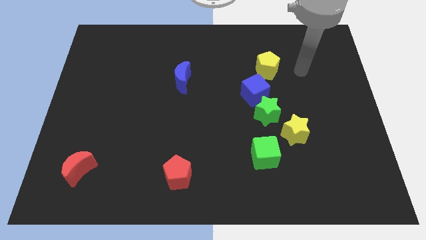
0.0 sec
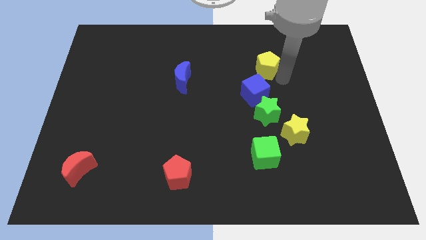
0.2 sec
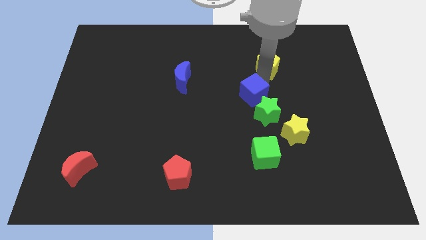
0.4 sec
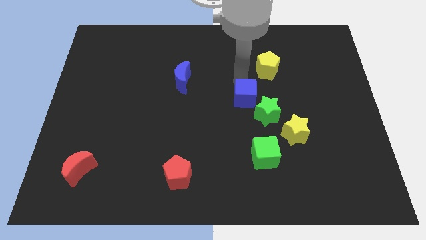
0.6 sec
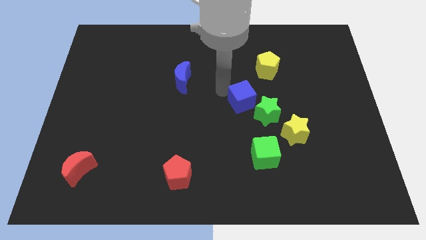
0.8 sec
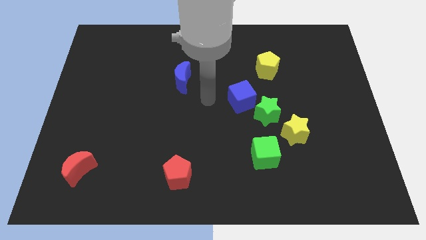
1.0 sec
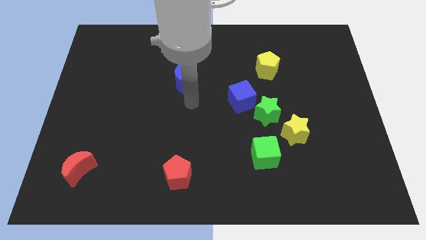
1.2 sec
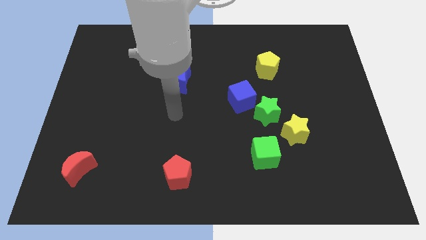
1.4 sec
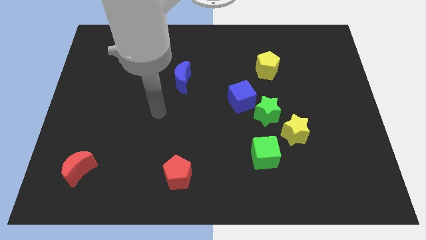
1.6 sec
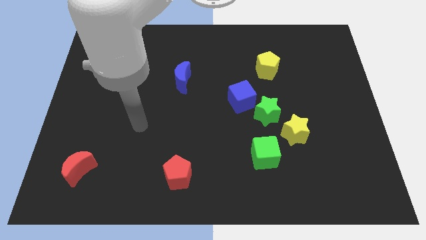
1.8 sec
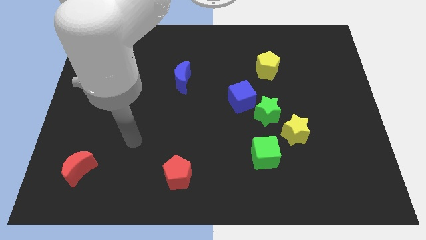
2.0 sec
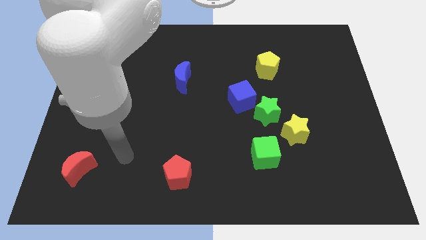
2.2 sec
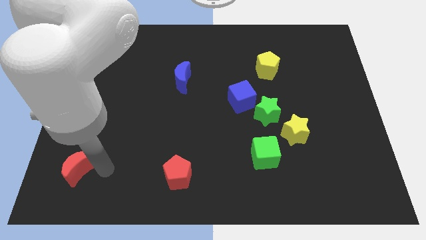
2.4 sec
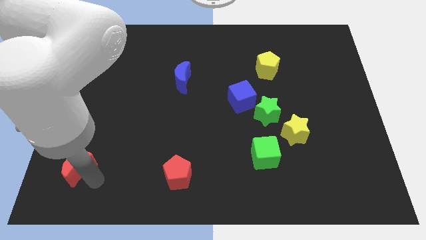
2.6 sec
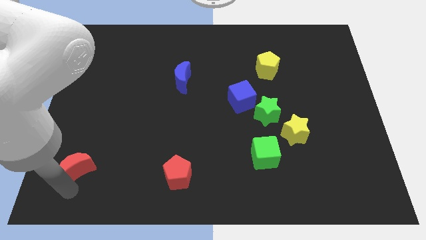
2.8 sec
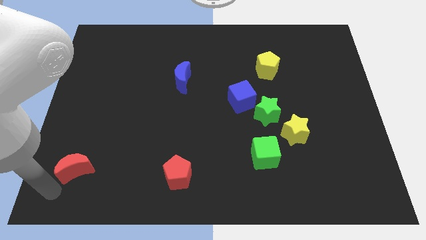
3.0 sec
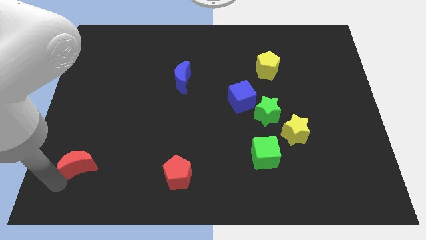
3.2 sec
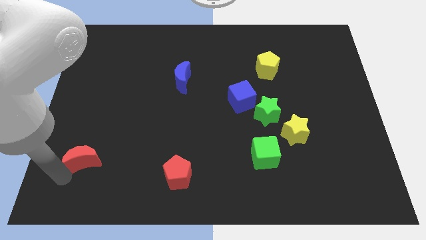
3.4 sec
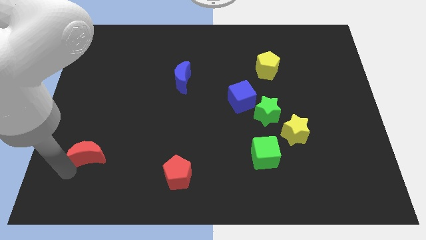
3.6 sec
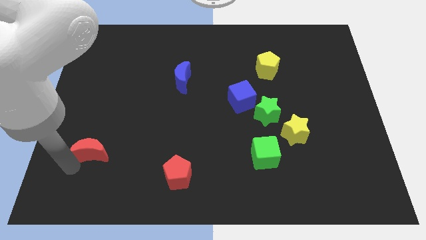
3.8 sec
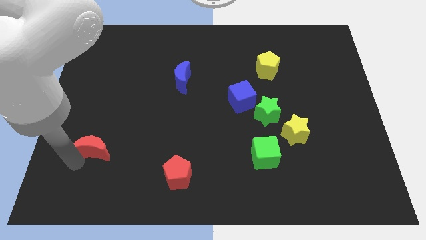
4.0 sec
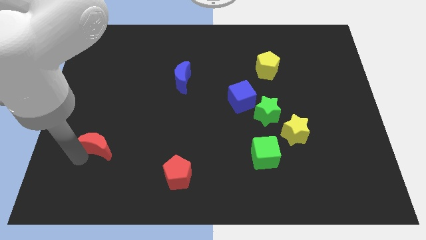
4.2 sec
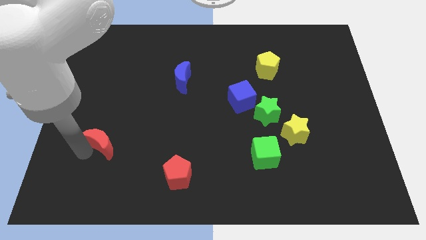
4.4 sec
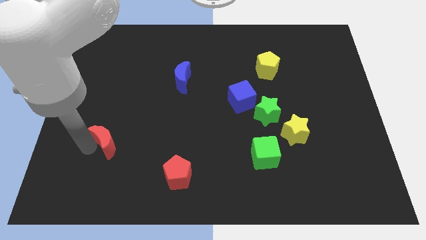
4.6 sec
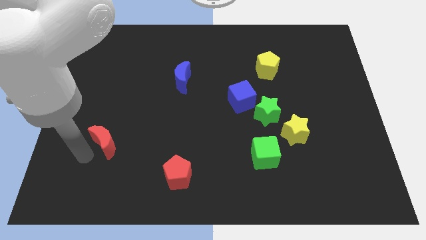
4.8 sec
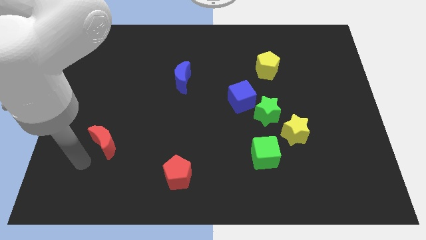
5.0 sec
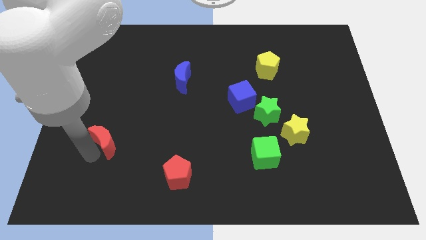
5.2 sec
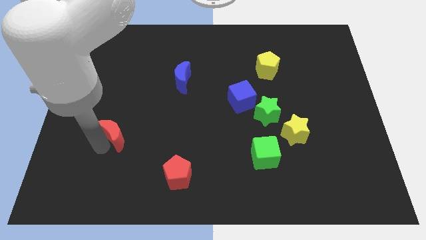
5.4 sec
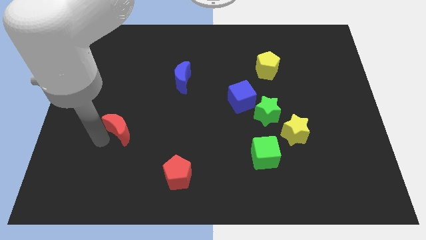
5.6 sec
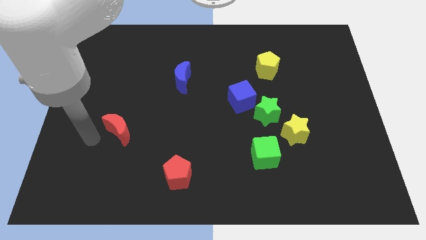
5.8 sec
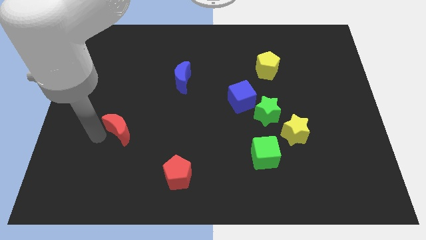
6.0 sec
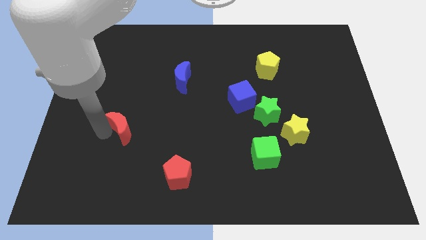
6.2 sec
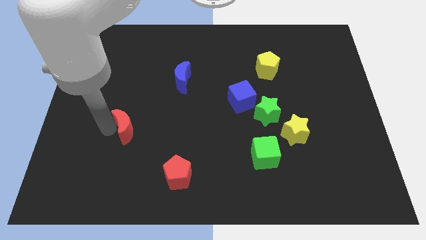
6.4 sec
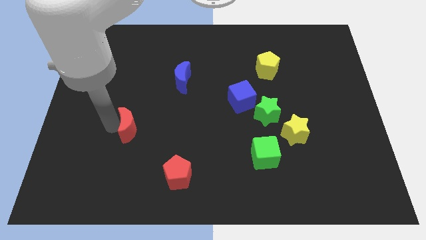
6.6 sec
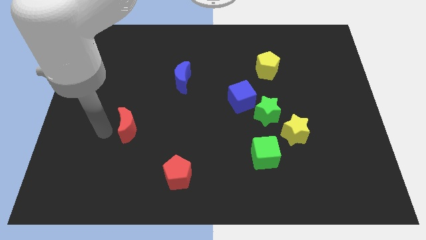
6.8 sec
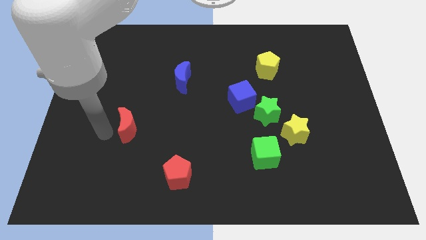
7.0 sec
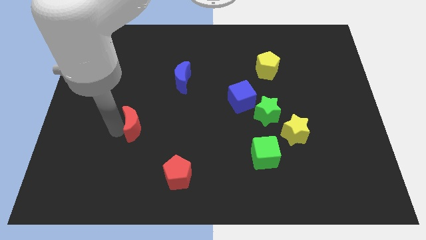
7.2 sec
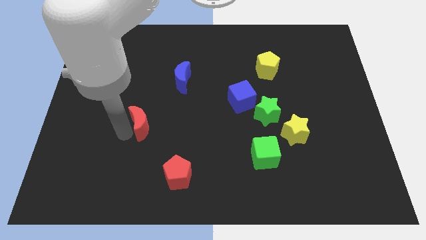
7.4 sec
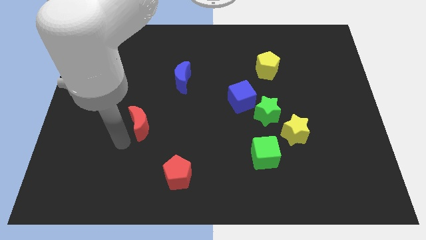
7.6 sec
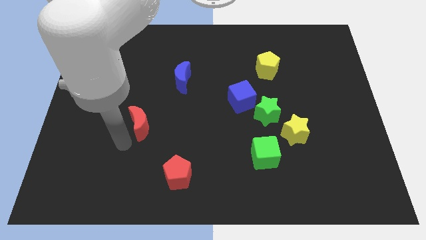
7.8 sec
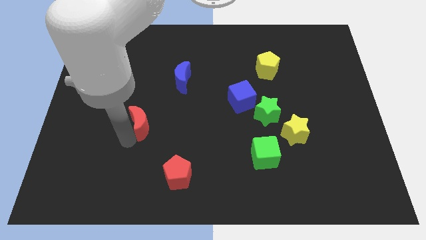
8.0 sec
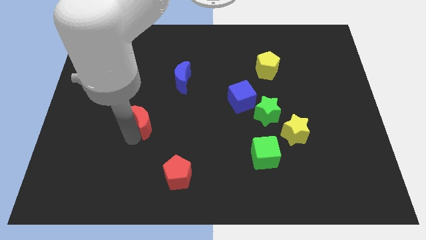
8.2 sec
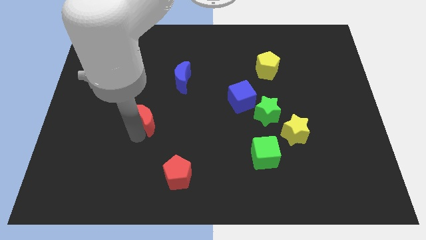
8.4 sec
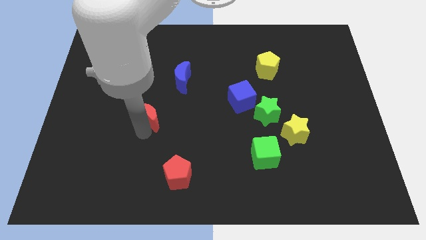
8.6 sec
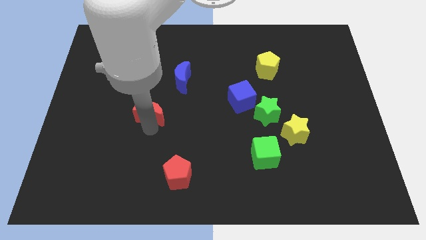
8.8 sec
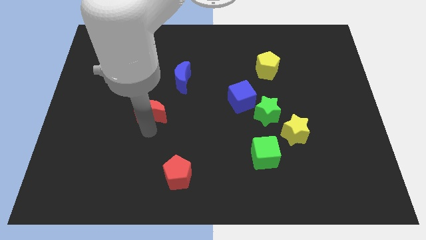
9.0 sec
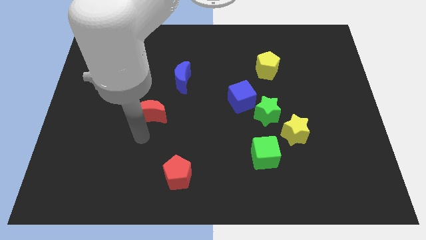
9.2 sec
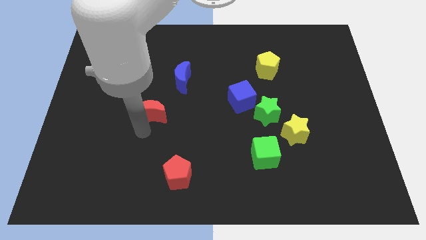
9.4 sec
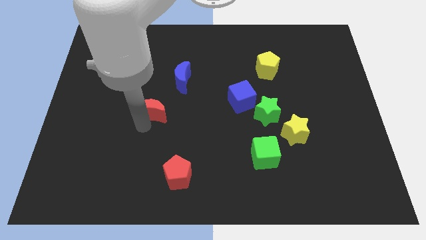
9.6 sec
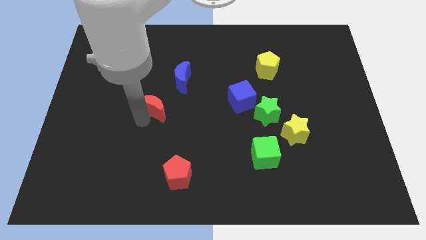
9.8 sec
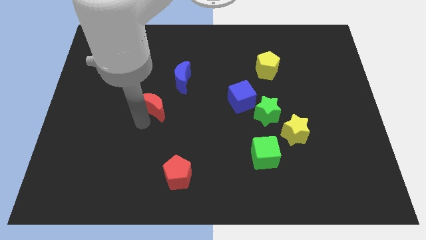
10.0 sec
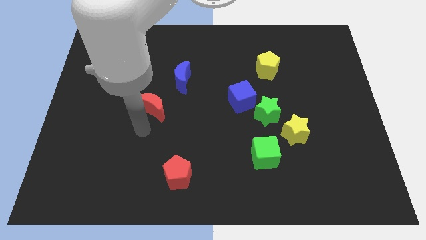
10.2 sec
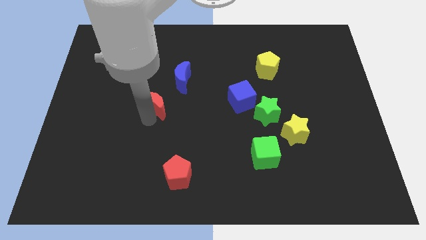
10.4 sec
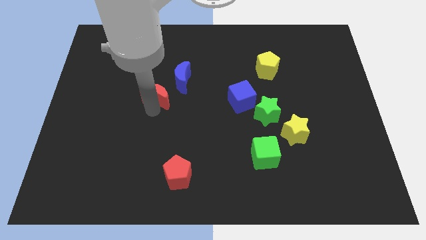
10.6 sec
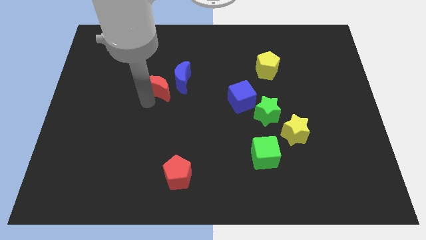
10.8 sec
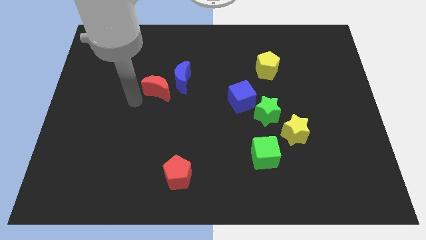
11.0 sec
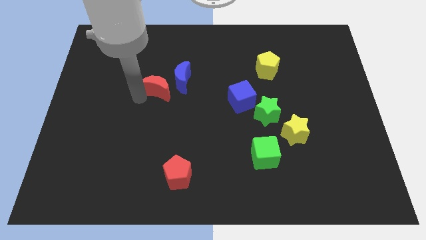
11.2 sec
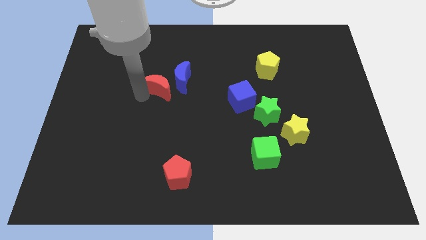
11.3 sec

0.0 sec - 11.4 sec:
slide the red moon towards the blue moon

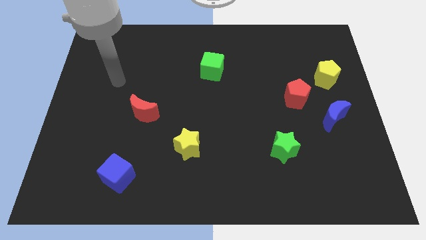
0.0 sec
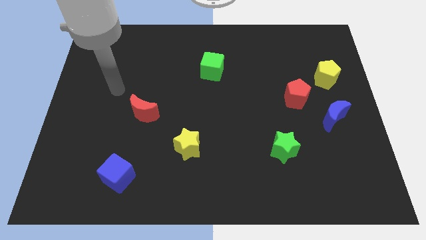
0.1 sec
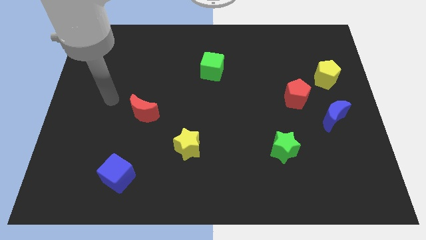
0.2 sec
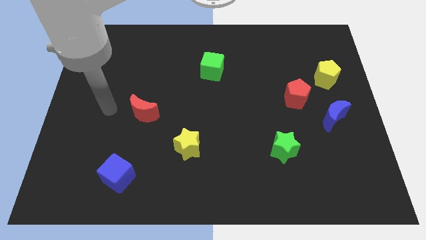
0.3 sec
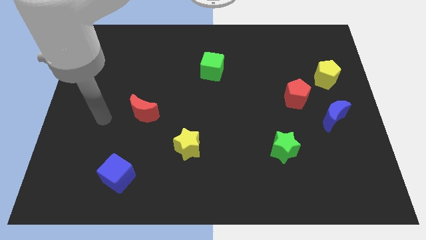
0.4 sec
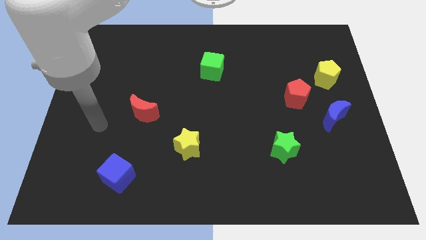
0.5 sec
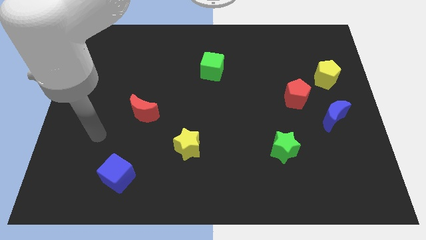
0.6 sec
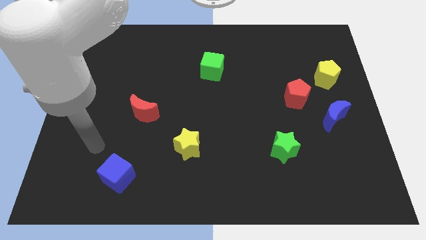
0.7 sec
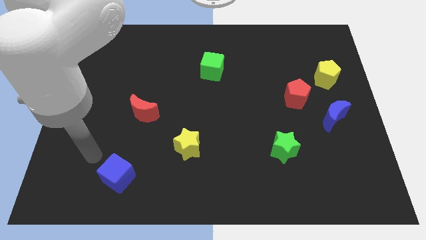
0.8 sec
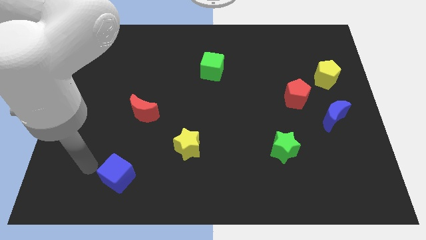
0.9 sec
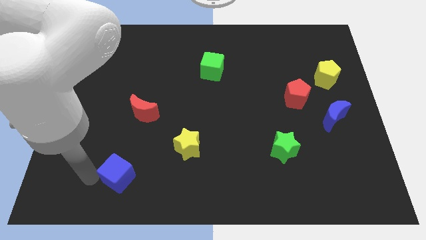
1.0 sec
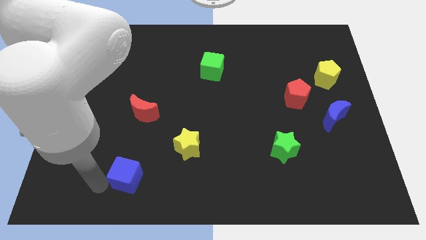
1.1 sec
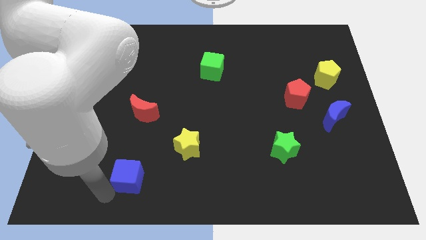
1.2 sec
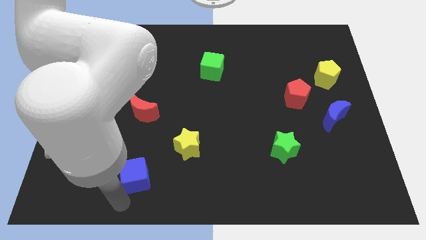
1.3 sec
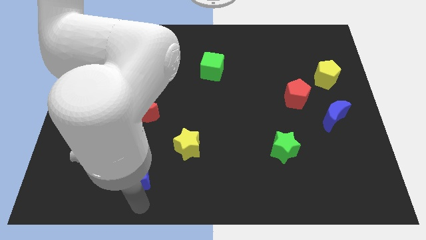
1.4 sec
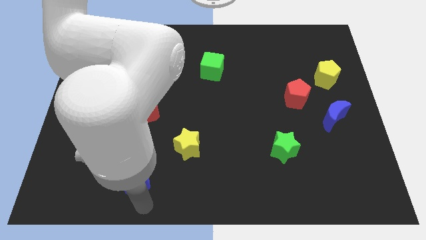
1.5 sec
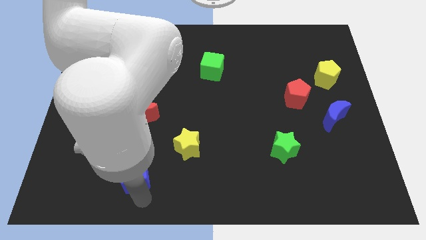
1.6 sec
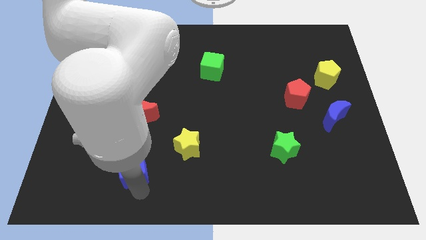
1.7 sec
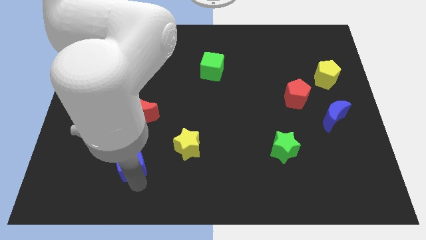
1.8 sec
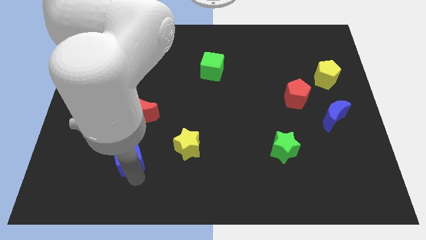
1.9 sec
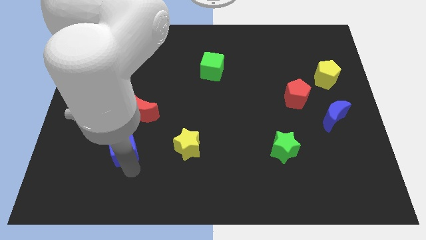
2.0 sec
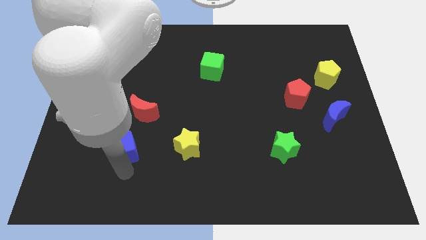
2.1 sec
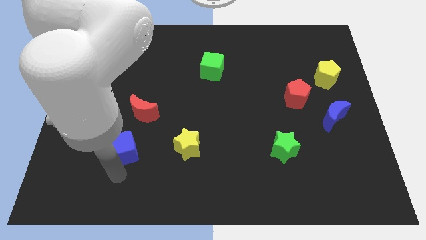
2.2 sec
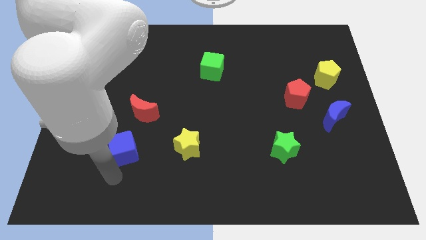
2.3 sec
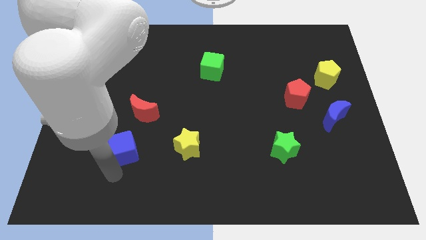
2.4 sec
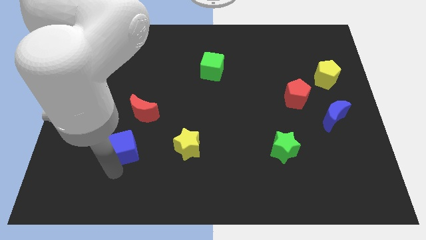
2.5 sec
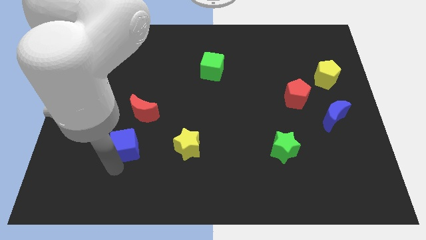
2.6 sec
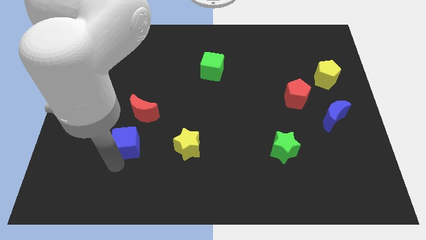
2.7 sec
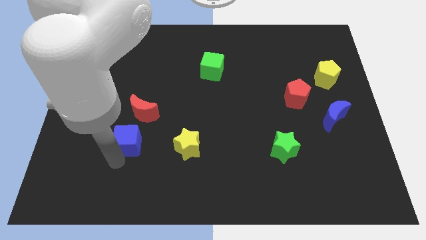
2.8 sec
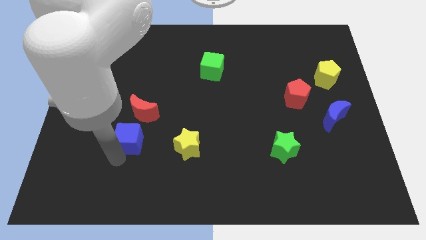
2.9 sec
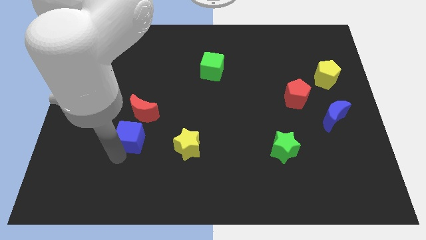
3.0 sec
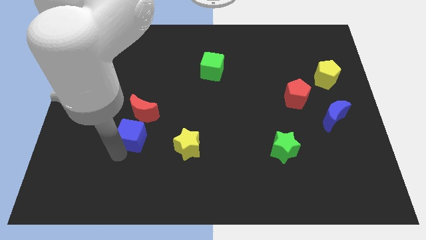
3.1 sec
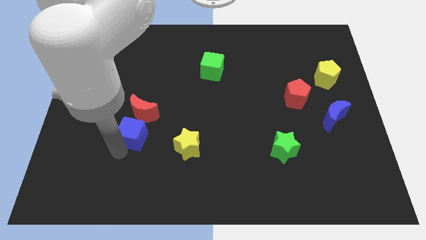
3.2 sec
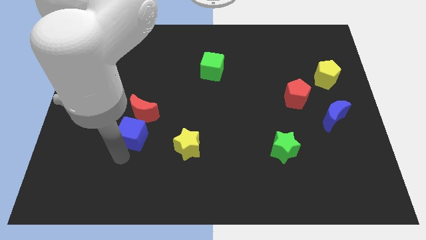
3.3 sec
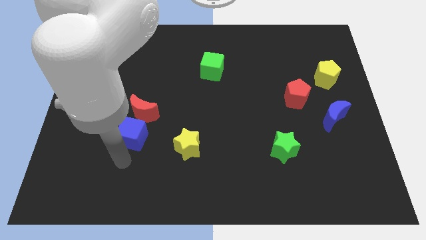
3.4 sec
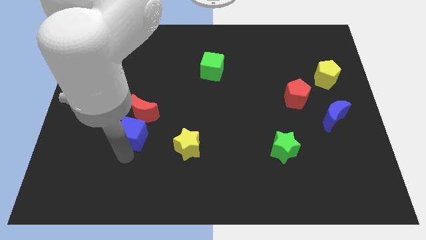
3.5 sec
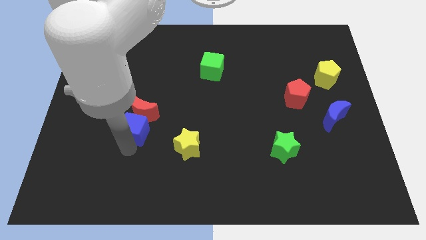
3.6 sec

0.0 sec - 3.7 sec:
put the blue cube to the red moon
